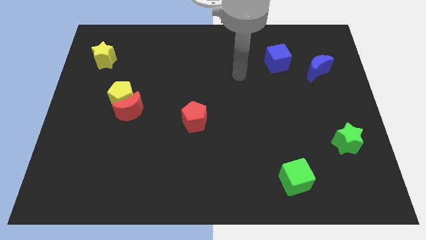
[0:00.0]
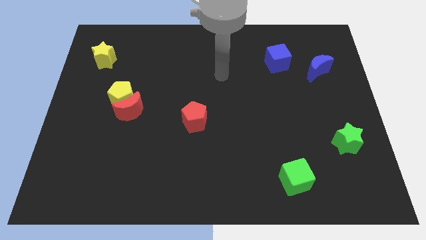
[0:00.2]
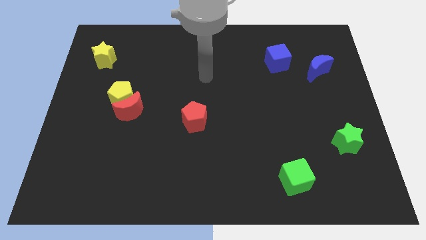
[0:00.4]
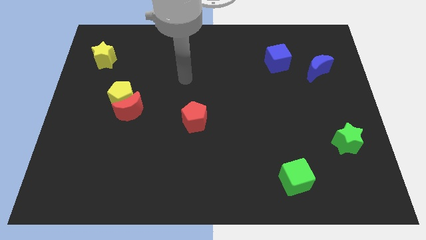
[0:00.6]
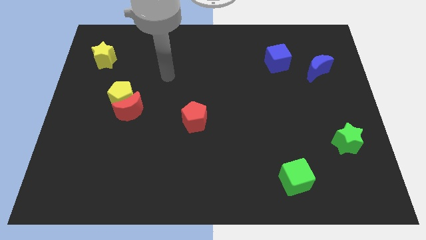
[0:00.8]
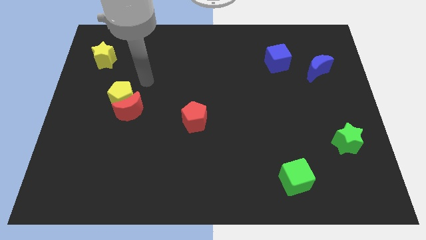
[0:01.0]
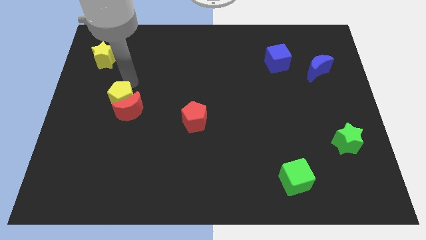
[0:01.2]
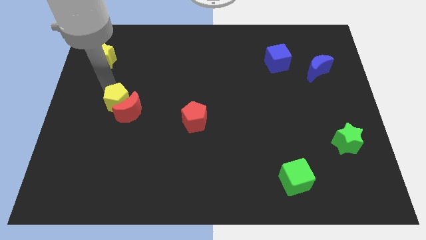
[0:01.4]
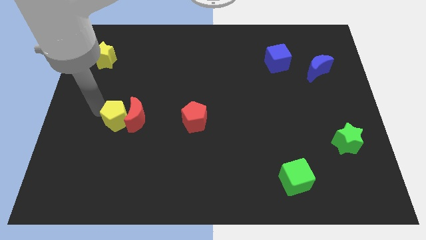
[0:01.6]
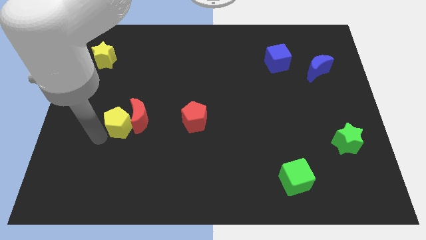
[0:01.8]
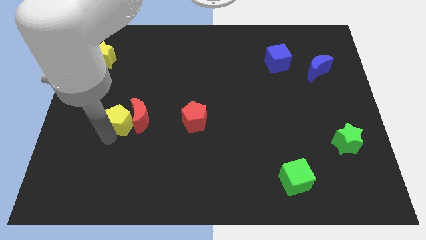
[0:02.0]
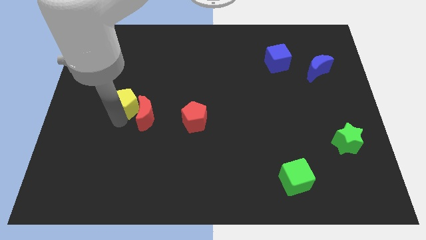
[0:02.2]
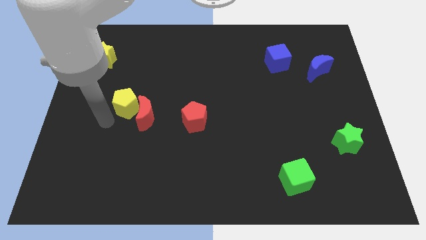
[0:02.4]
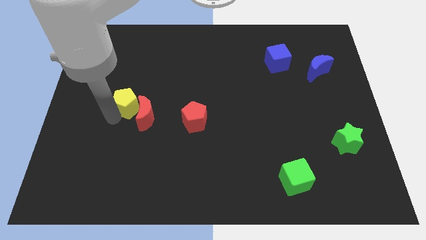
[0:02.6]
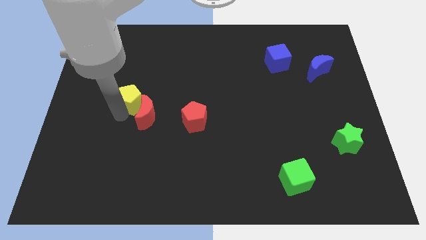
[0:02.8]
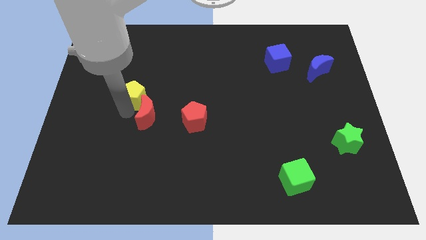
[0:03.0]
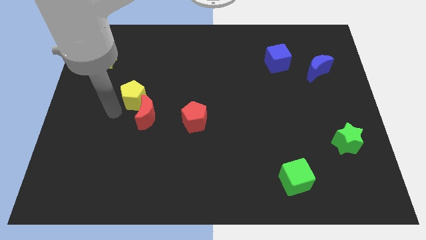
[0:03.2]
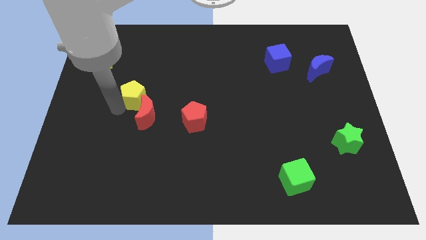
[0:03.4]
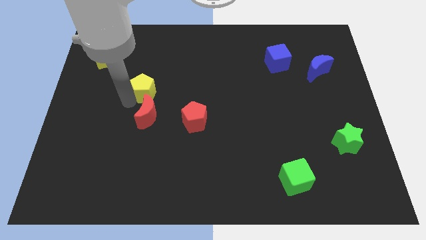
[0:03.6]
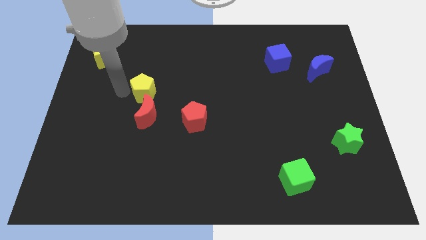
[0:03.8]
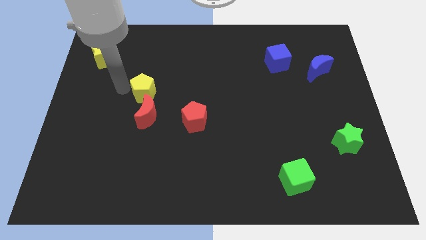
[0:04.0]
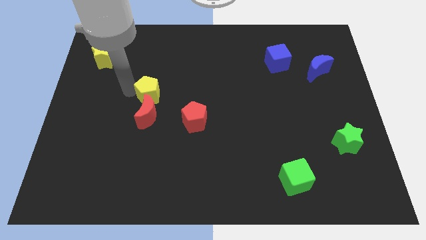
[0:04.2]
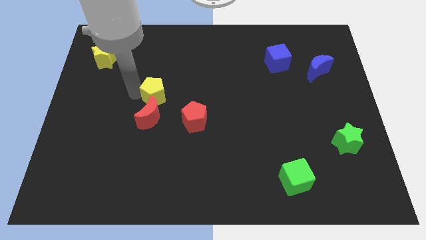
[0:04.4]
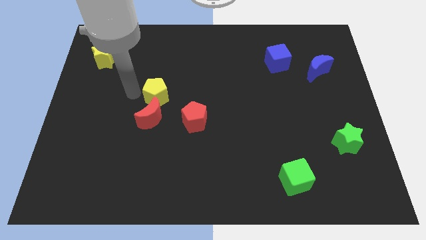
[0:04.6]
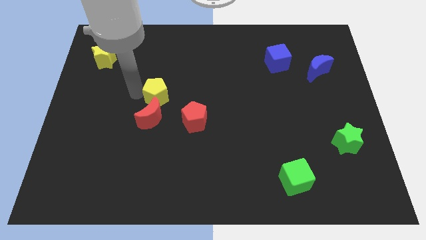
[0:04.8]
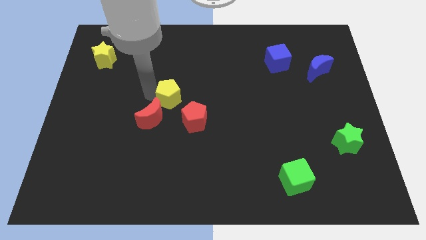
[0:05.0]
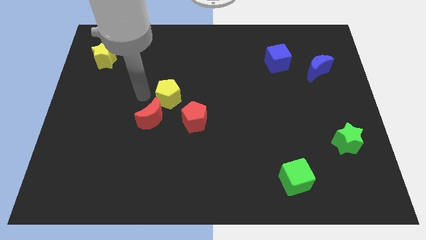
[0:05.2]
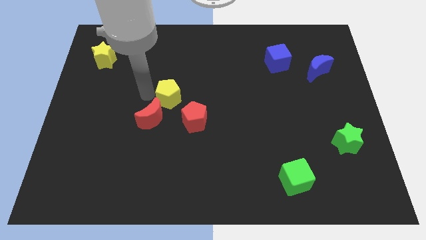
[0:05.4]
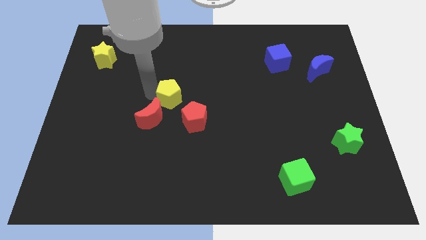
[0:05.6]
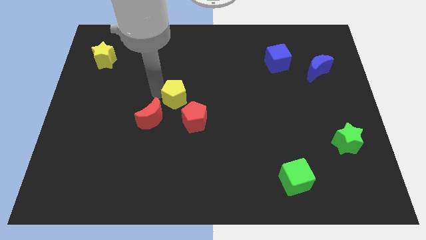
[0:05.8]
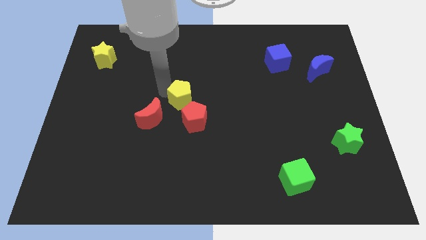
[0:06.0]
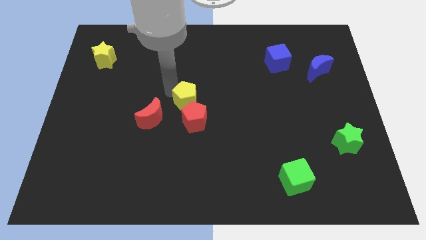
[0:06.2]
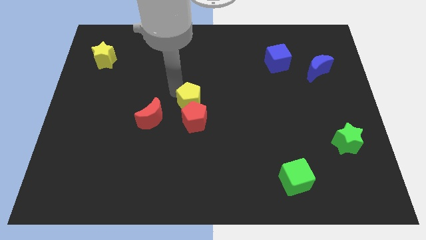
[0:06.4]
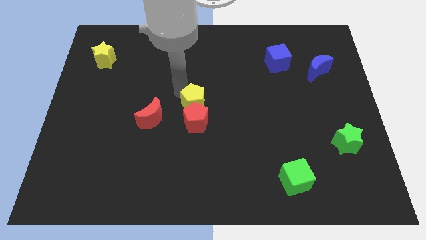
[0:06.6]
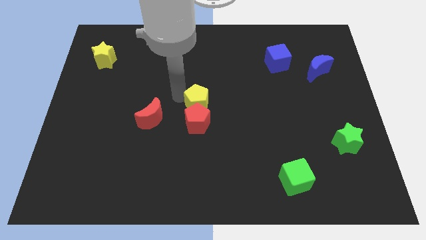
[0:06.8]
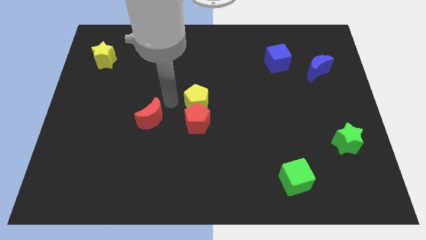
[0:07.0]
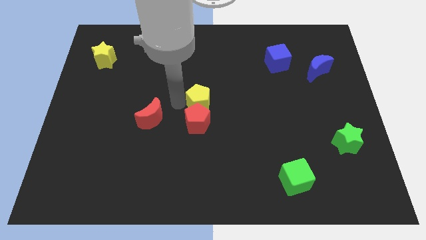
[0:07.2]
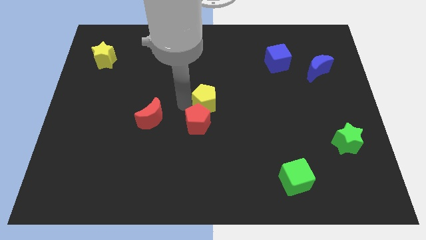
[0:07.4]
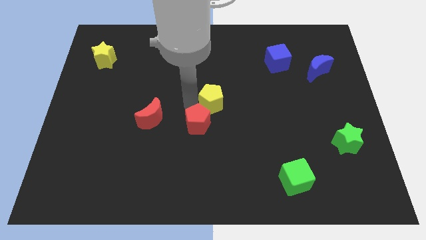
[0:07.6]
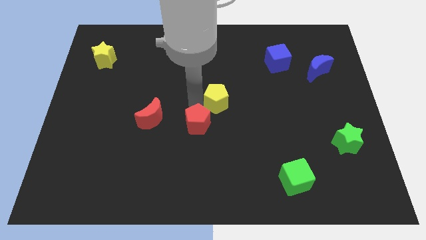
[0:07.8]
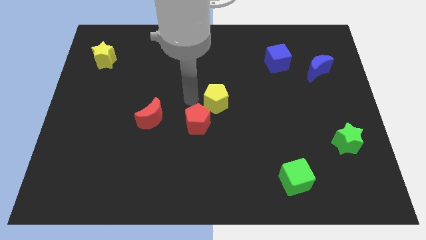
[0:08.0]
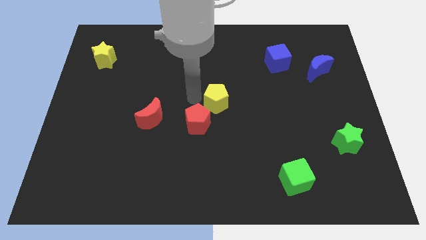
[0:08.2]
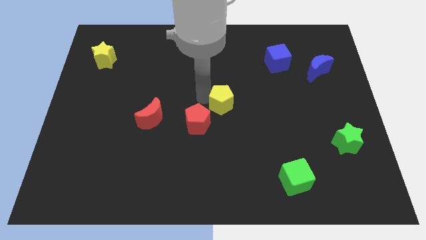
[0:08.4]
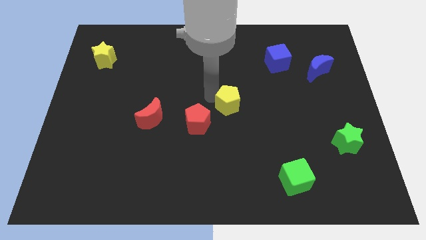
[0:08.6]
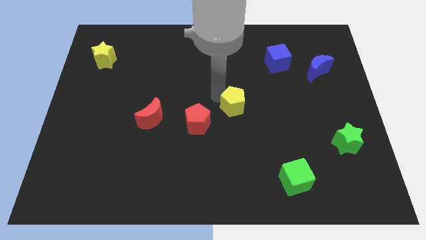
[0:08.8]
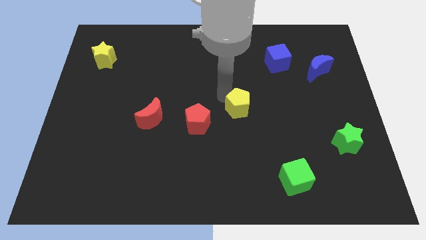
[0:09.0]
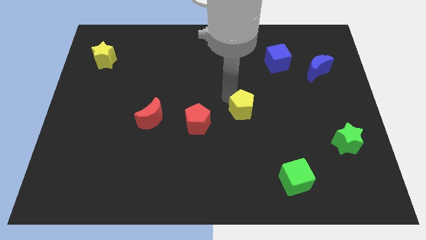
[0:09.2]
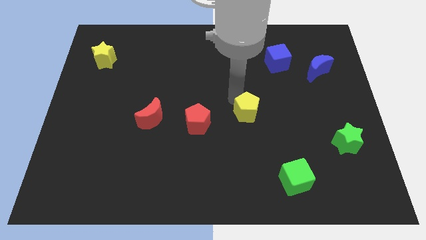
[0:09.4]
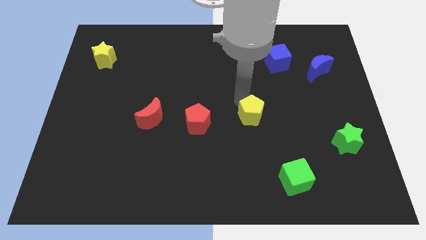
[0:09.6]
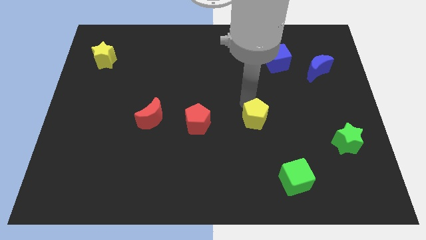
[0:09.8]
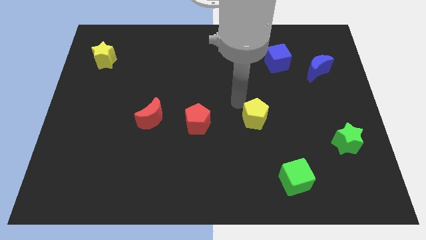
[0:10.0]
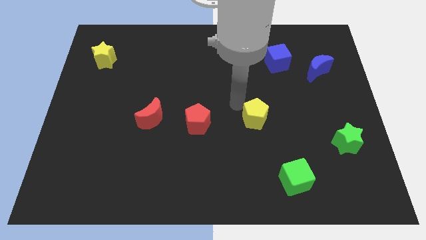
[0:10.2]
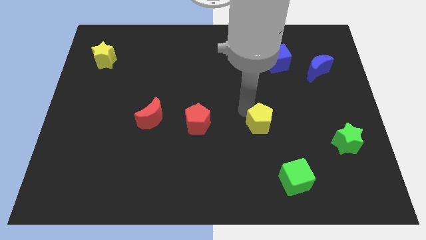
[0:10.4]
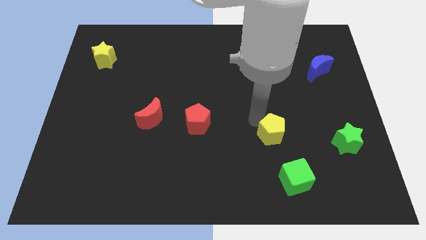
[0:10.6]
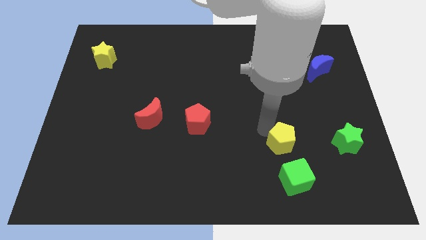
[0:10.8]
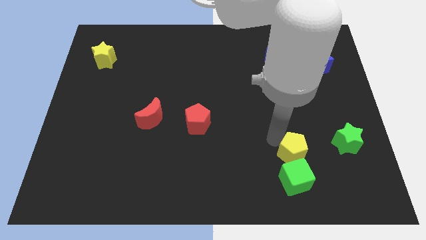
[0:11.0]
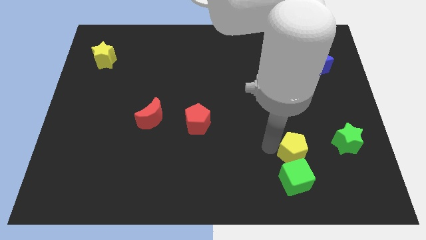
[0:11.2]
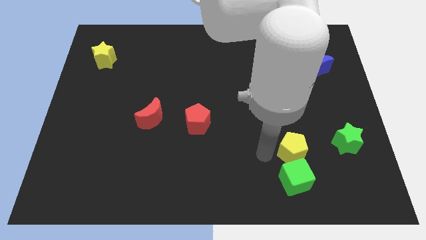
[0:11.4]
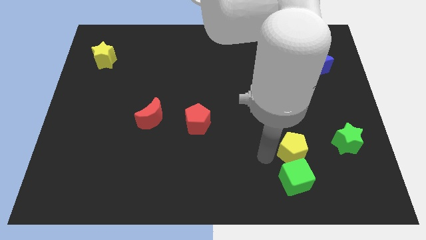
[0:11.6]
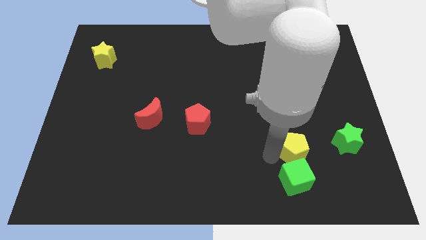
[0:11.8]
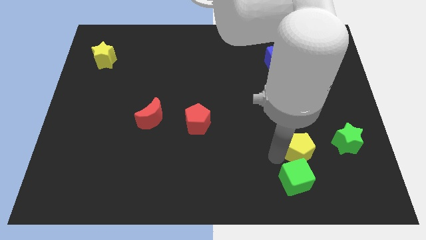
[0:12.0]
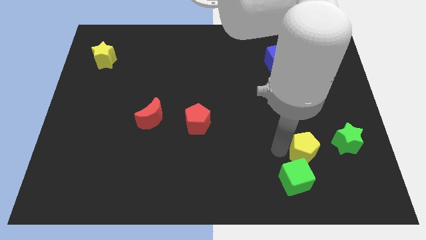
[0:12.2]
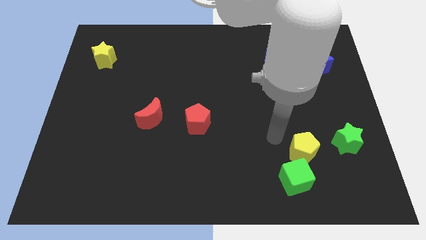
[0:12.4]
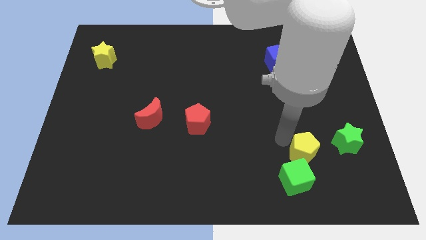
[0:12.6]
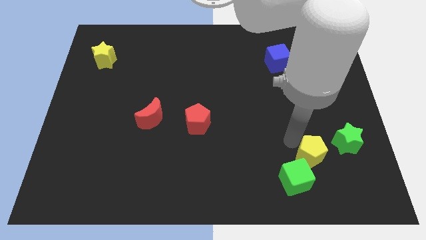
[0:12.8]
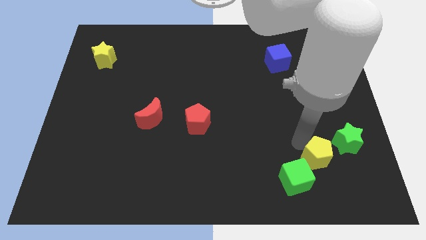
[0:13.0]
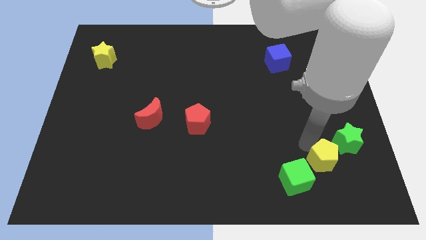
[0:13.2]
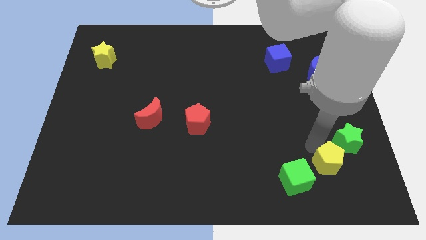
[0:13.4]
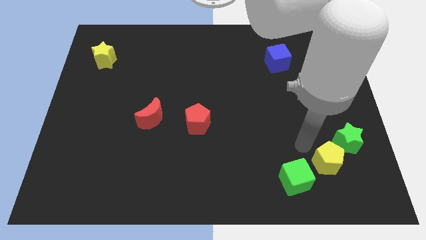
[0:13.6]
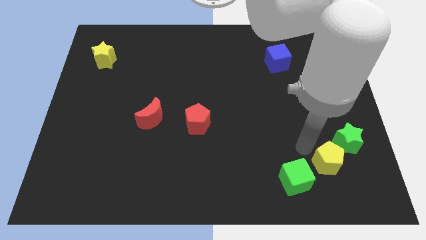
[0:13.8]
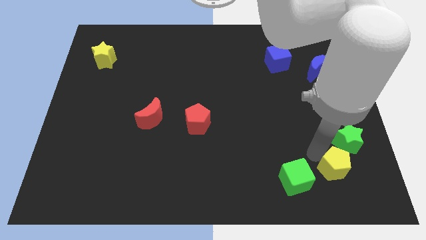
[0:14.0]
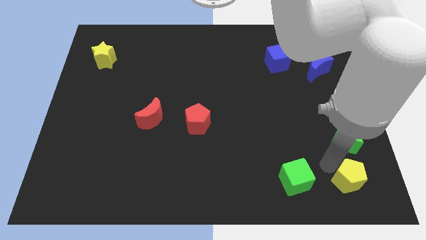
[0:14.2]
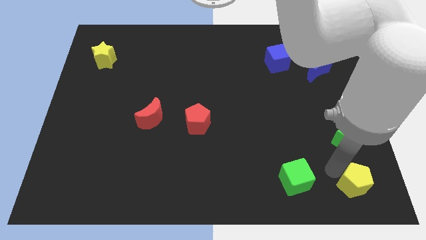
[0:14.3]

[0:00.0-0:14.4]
slide the yellow pentagon to the bottom right
